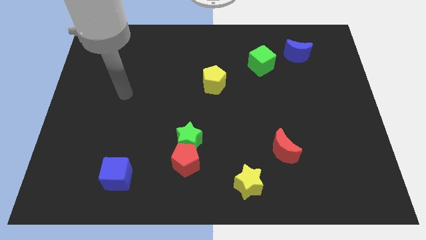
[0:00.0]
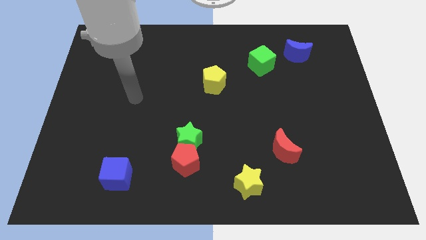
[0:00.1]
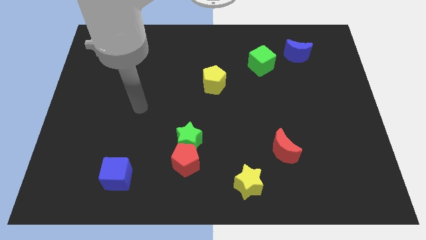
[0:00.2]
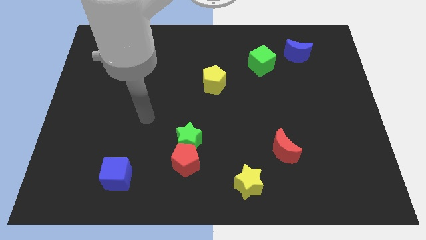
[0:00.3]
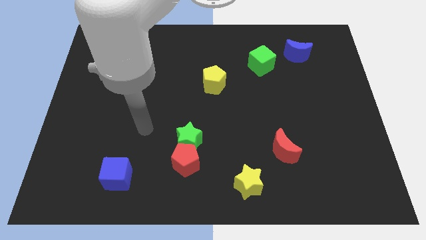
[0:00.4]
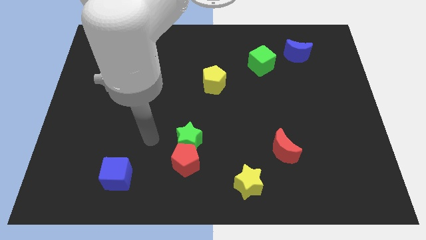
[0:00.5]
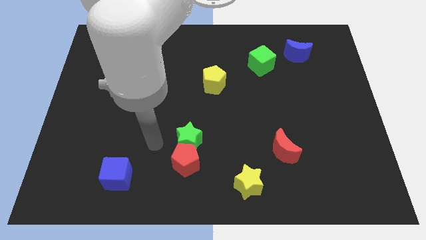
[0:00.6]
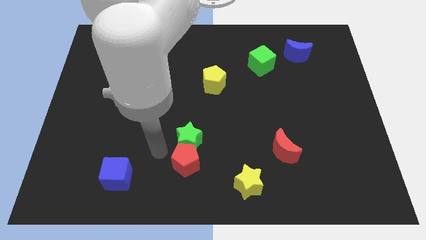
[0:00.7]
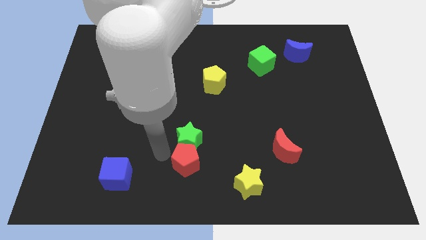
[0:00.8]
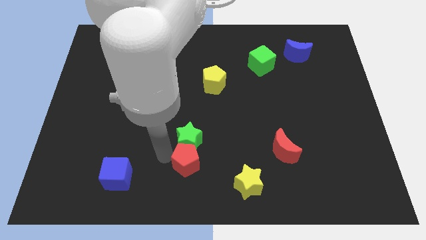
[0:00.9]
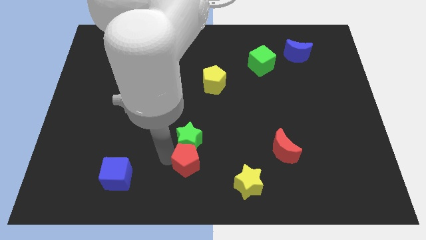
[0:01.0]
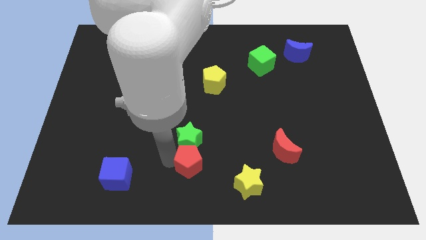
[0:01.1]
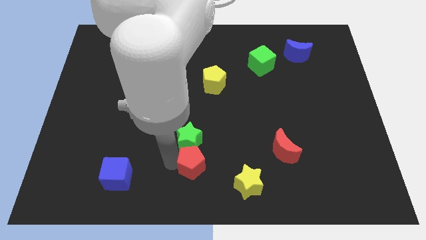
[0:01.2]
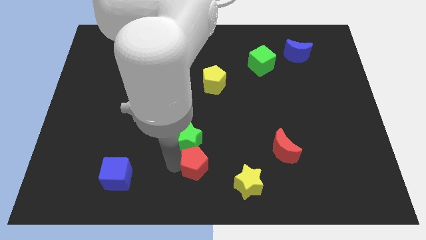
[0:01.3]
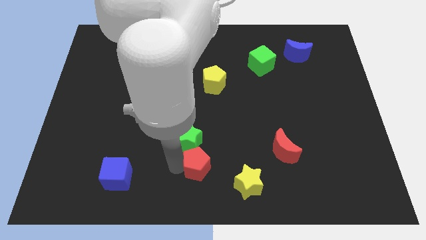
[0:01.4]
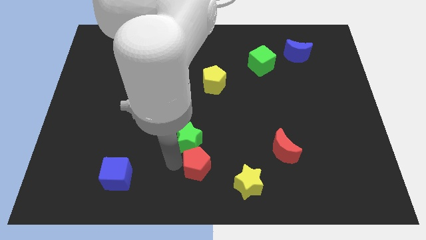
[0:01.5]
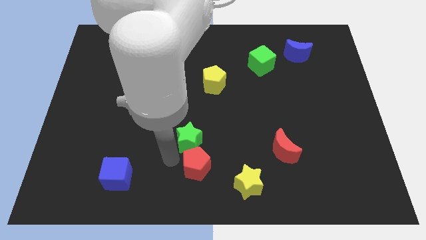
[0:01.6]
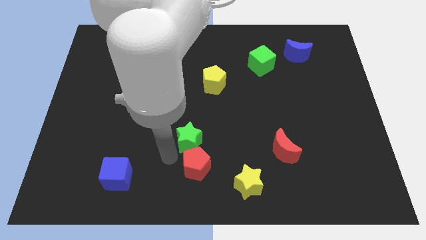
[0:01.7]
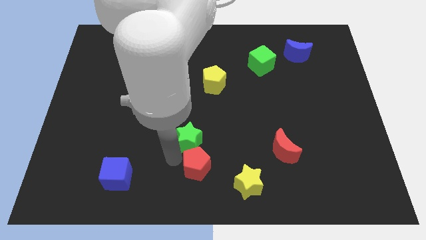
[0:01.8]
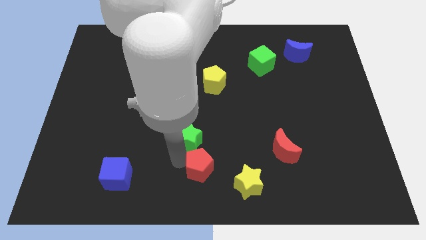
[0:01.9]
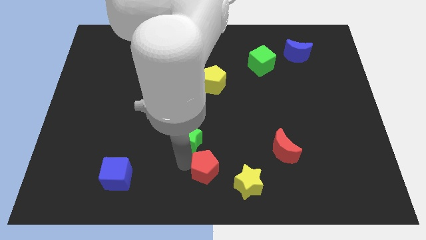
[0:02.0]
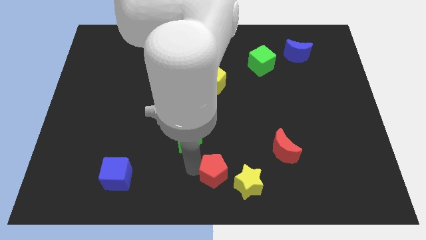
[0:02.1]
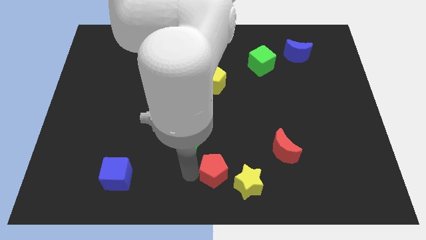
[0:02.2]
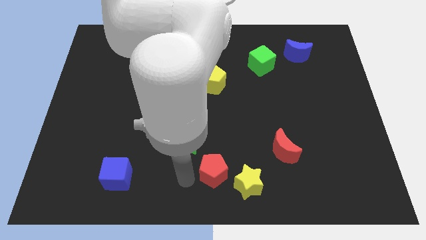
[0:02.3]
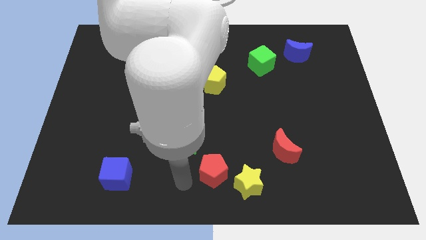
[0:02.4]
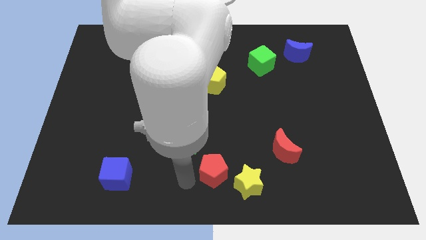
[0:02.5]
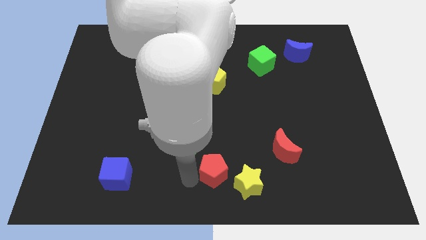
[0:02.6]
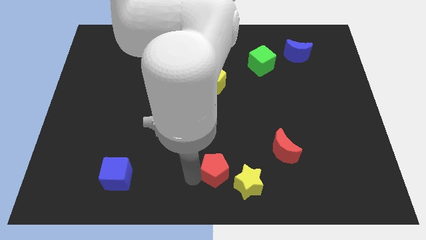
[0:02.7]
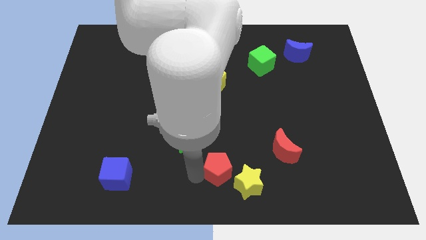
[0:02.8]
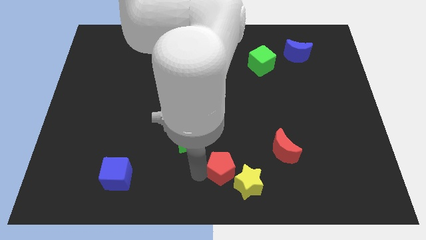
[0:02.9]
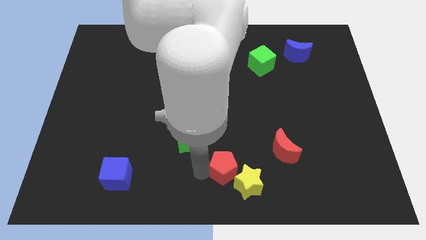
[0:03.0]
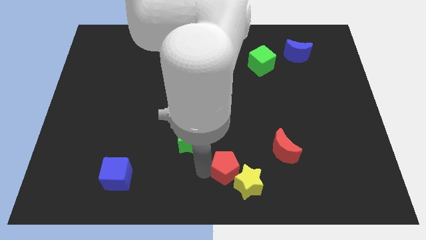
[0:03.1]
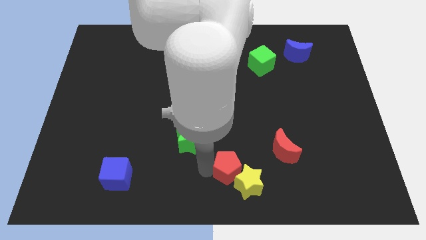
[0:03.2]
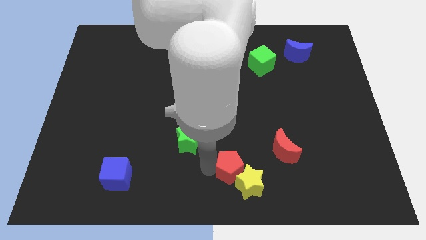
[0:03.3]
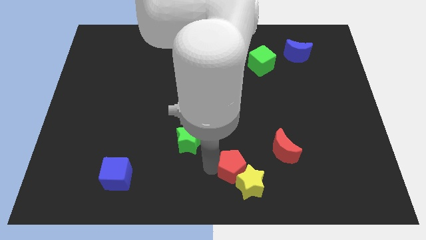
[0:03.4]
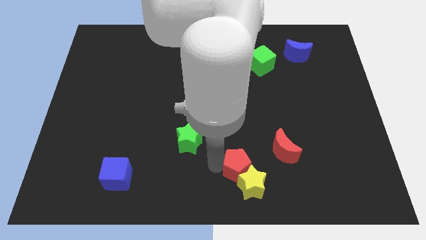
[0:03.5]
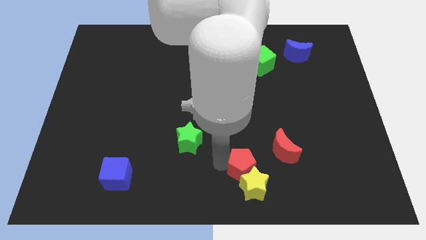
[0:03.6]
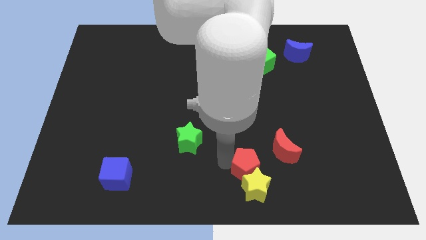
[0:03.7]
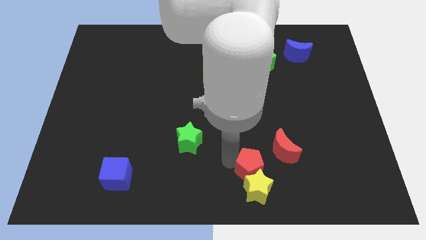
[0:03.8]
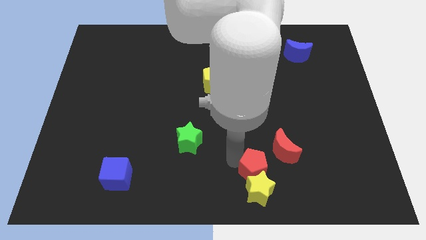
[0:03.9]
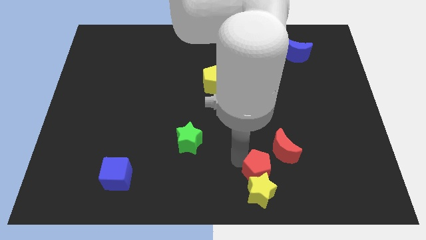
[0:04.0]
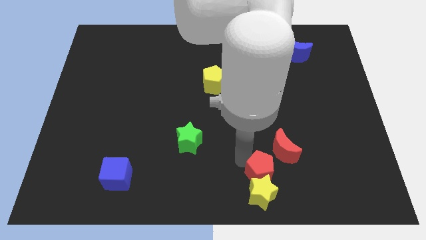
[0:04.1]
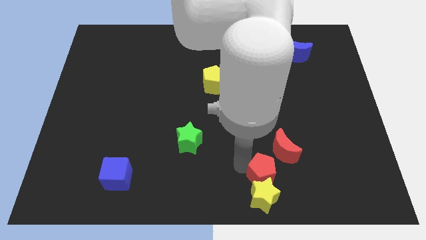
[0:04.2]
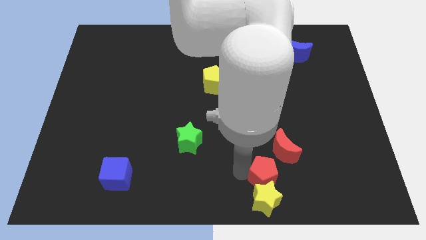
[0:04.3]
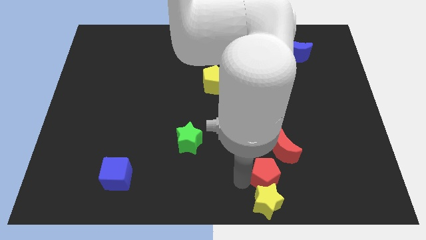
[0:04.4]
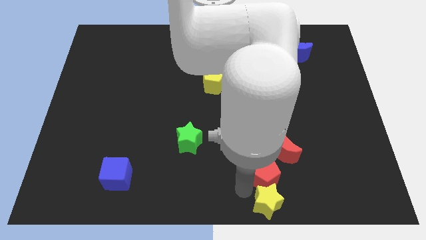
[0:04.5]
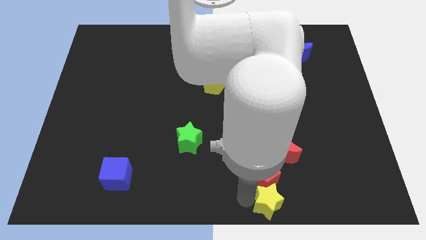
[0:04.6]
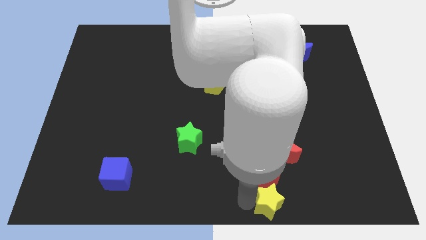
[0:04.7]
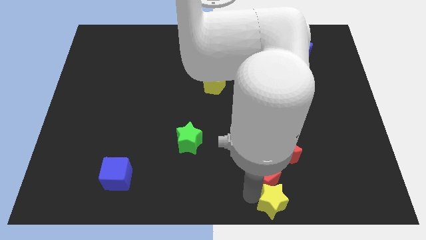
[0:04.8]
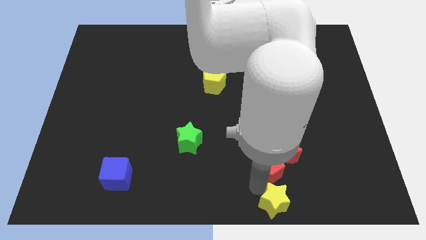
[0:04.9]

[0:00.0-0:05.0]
put the red pentagon towards the red moon

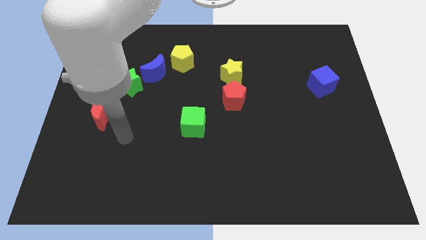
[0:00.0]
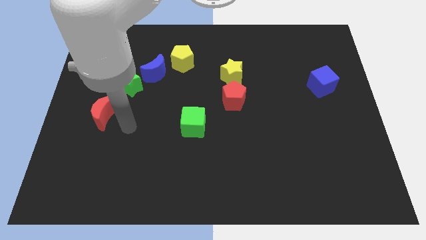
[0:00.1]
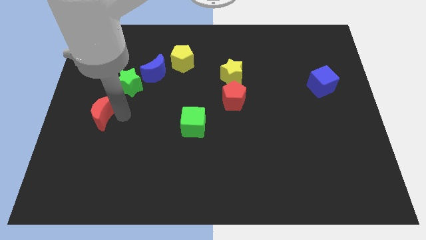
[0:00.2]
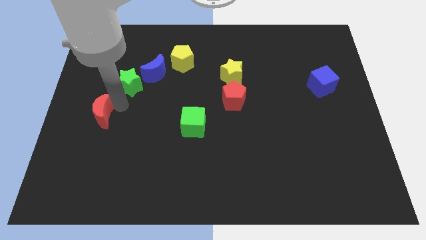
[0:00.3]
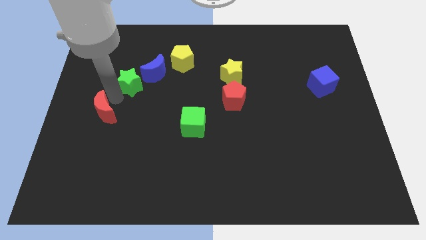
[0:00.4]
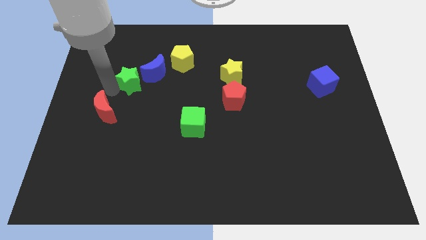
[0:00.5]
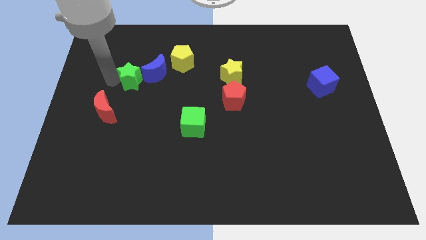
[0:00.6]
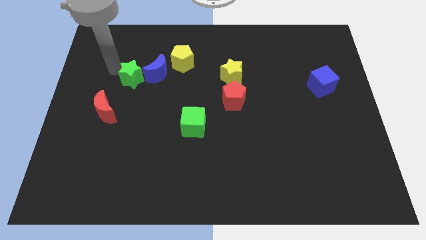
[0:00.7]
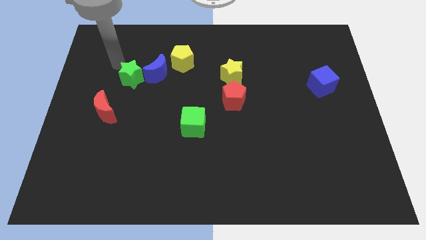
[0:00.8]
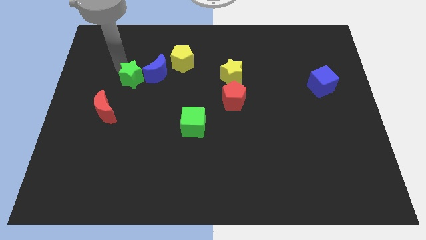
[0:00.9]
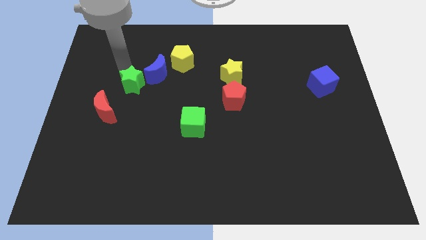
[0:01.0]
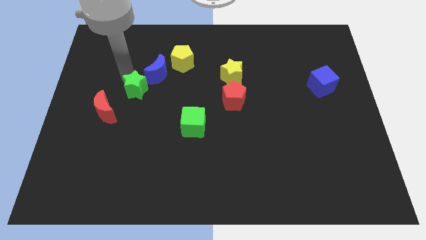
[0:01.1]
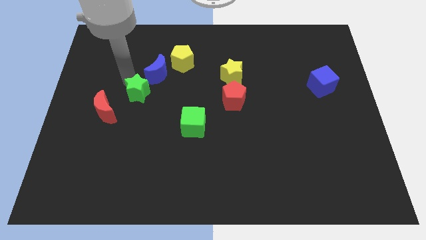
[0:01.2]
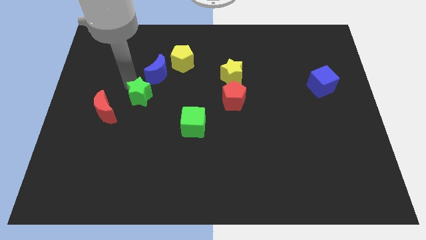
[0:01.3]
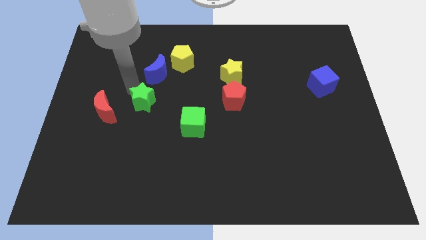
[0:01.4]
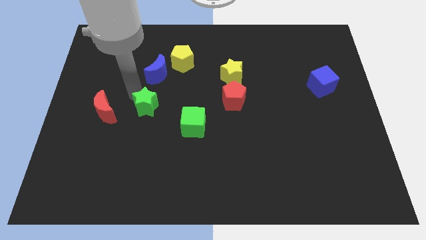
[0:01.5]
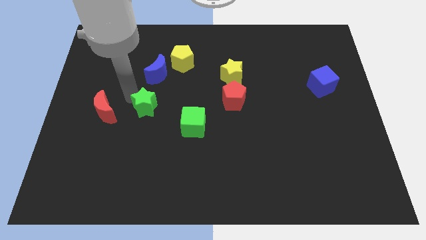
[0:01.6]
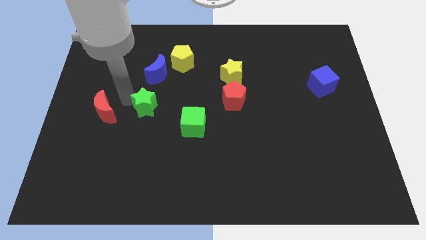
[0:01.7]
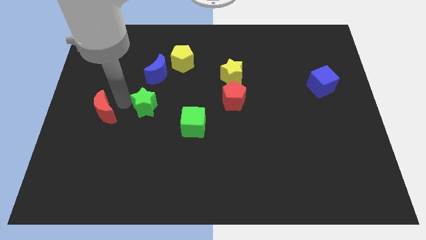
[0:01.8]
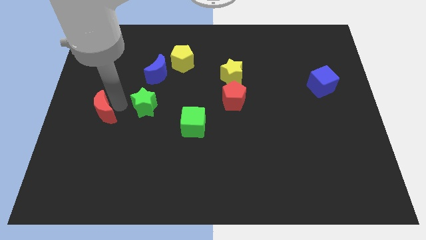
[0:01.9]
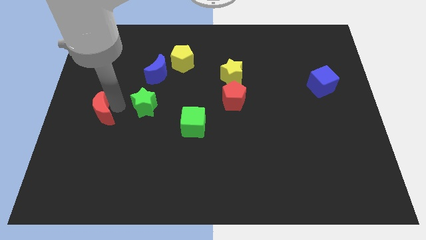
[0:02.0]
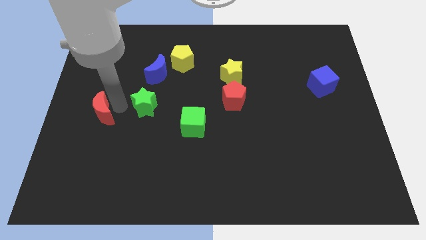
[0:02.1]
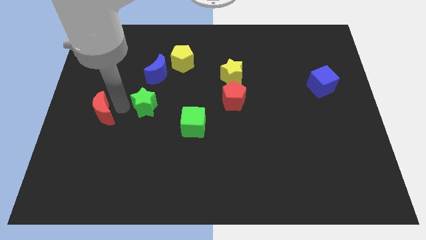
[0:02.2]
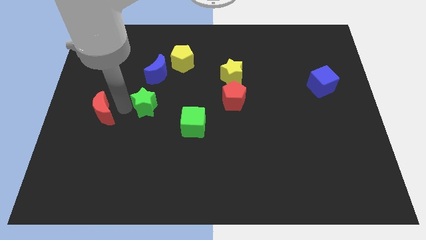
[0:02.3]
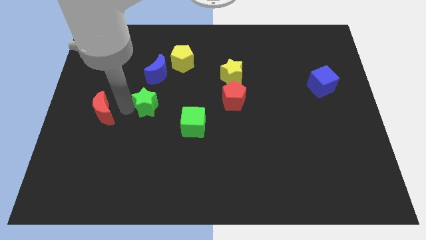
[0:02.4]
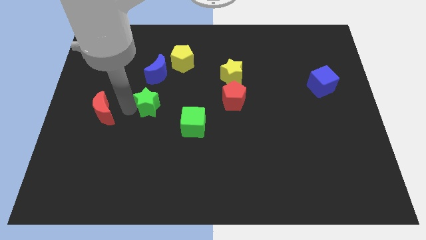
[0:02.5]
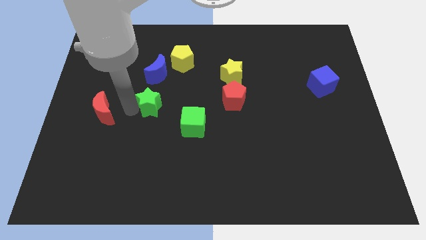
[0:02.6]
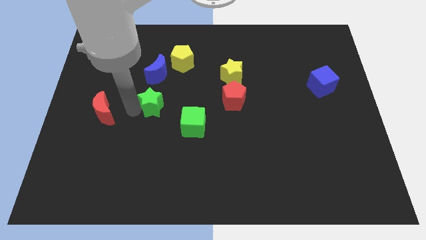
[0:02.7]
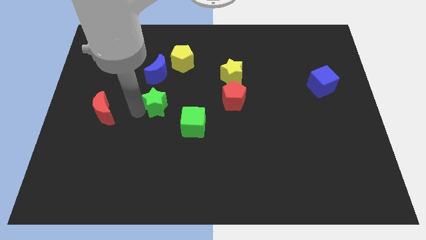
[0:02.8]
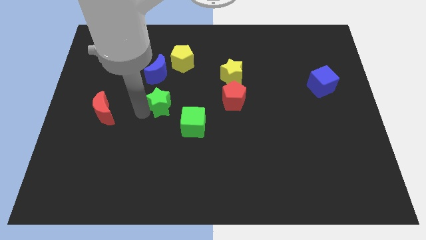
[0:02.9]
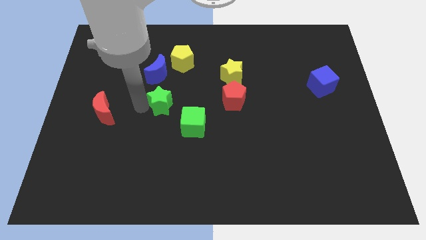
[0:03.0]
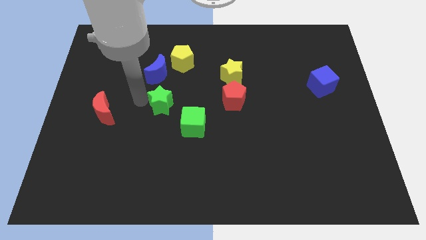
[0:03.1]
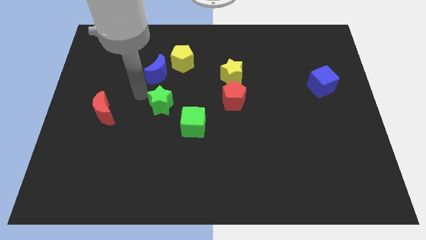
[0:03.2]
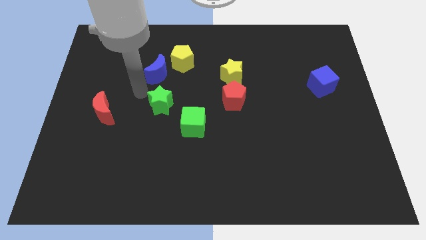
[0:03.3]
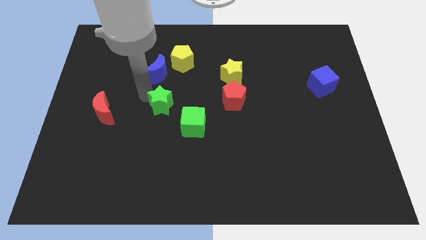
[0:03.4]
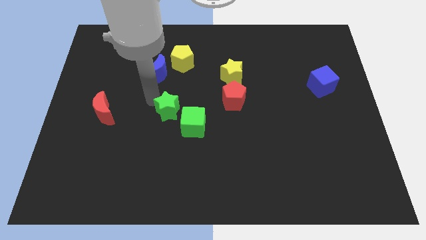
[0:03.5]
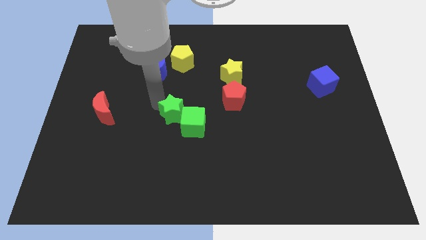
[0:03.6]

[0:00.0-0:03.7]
move the green star close to the green cube
